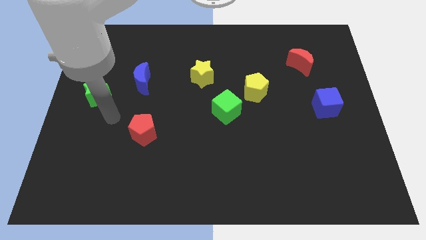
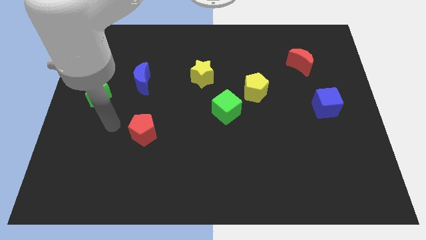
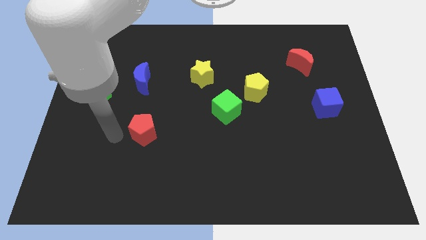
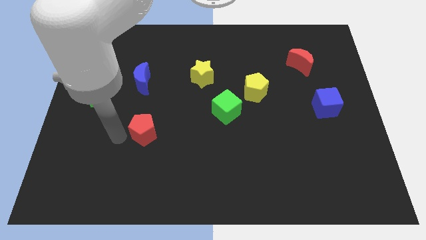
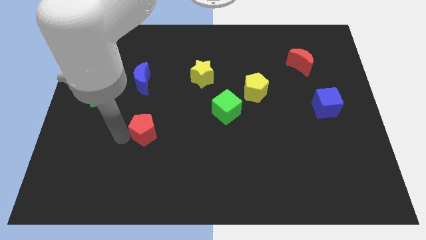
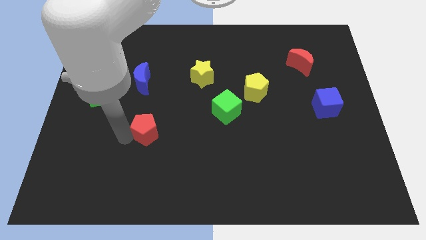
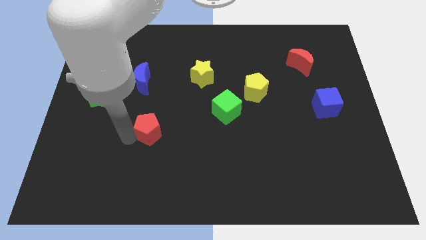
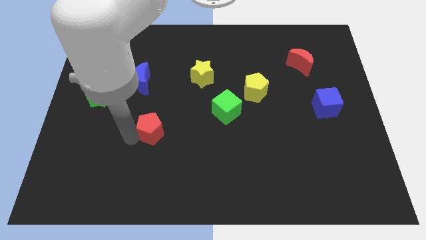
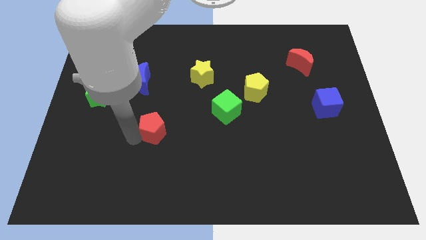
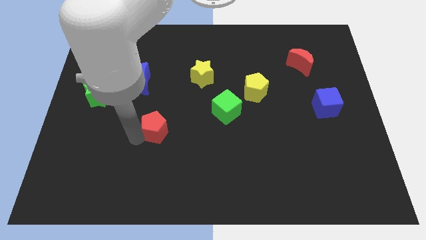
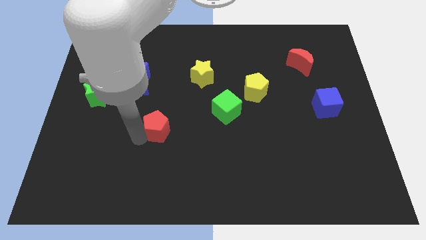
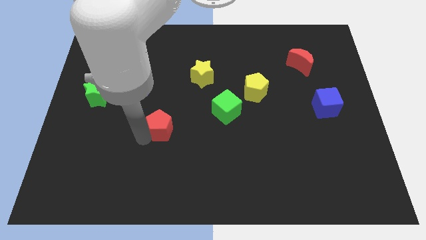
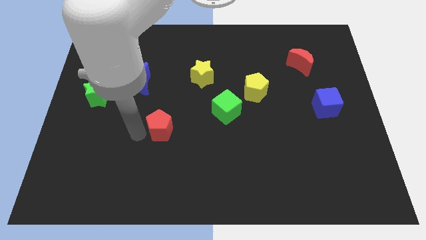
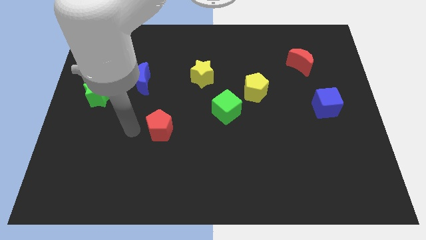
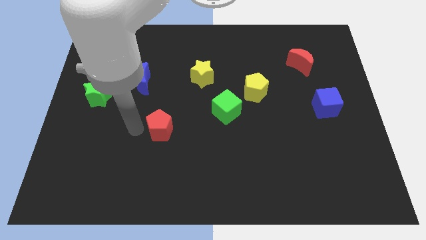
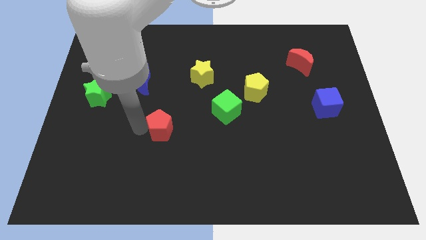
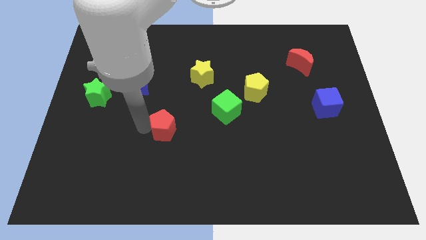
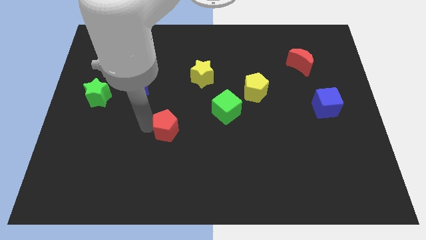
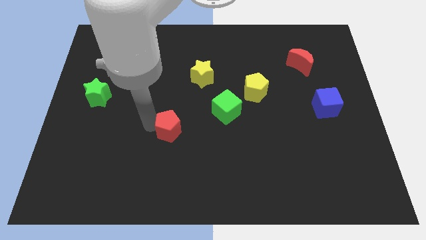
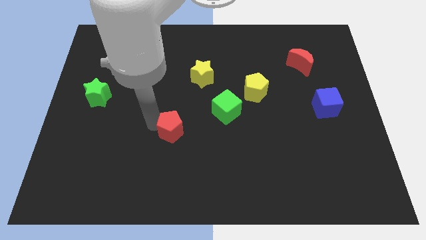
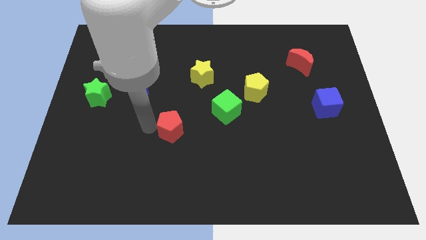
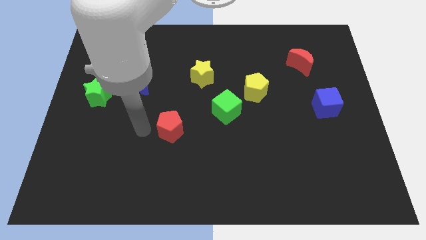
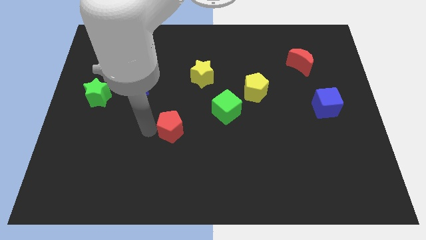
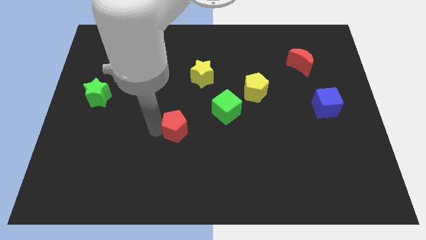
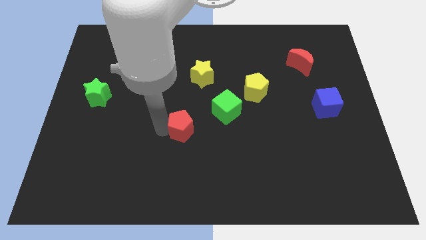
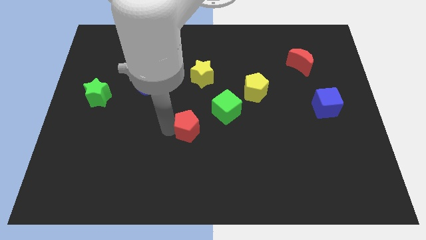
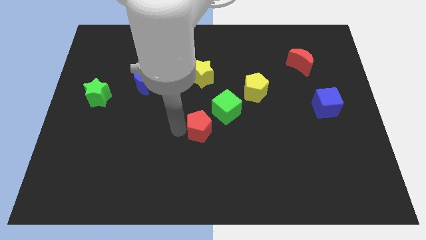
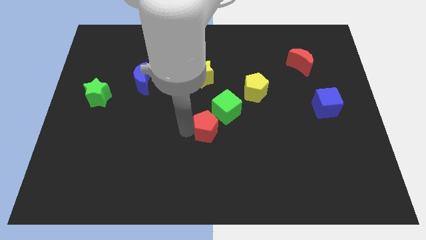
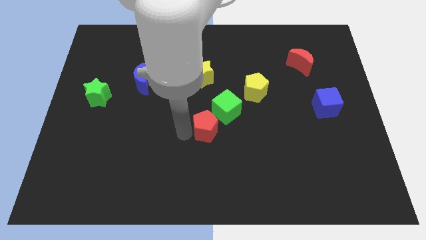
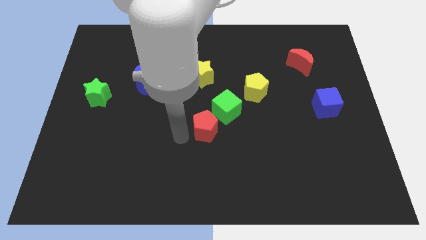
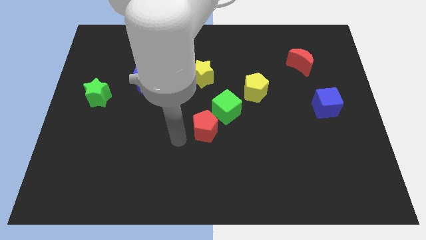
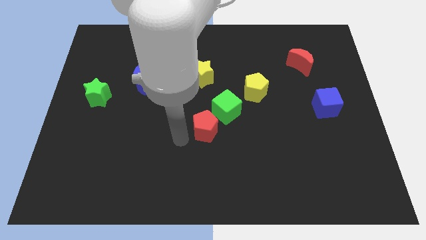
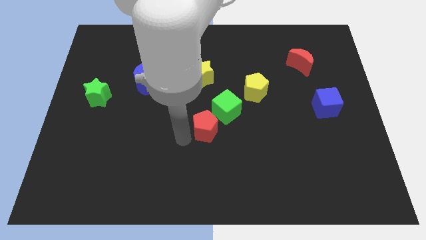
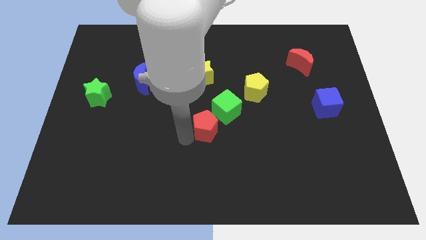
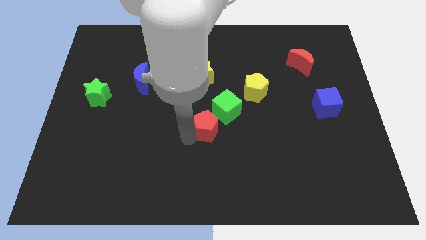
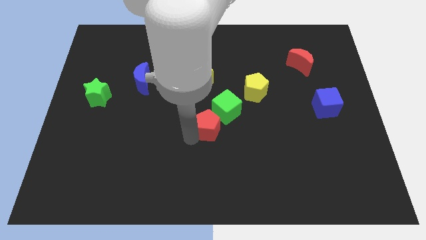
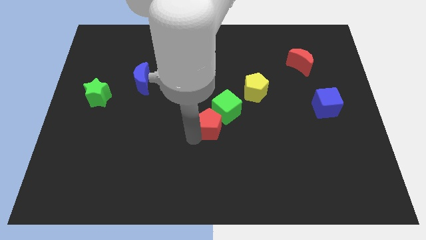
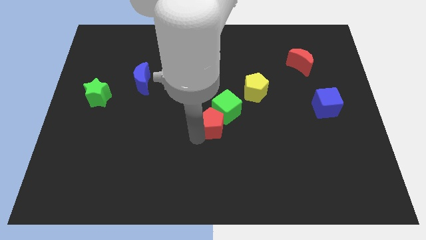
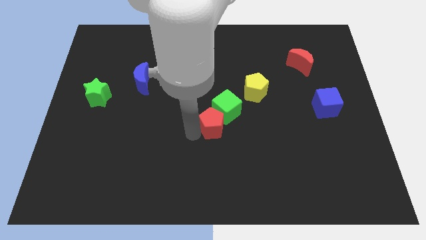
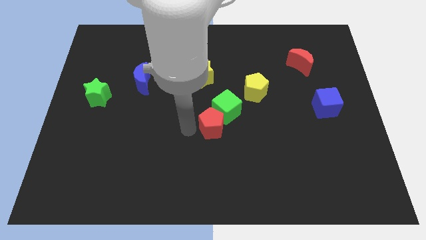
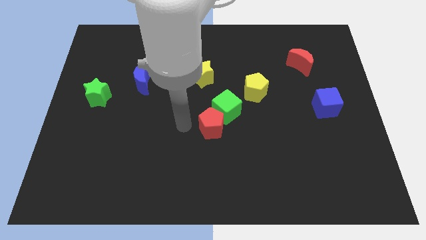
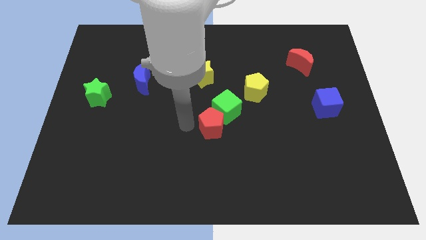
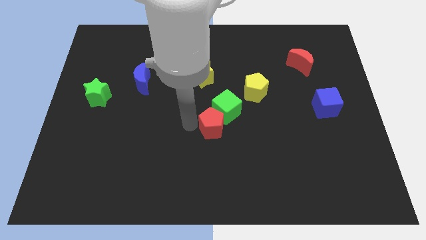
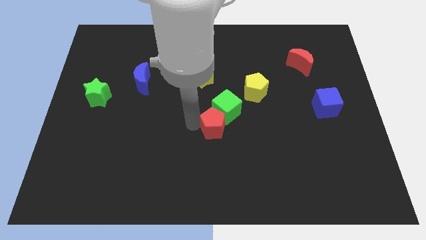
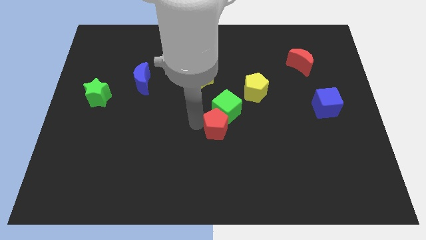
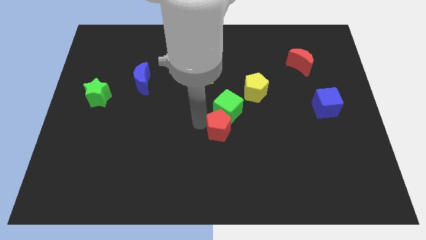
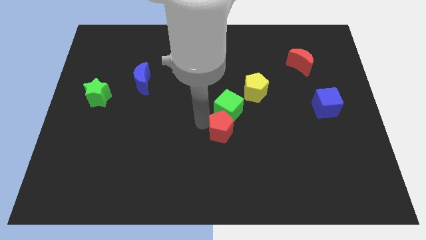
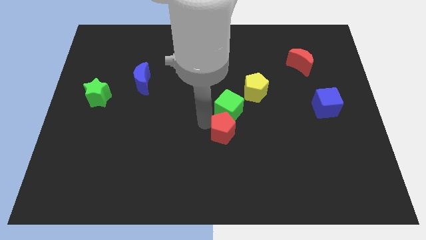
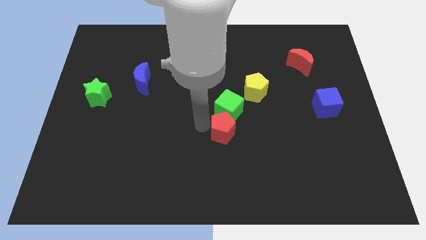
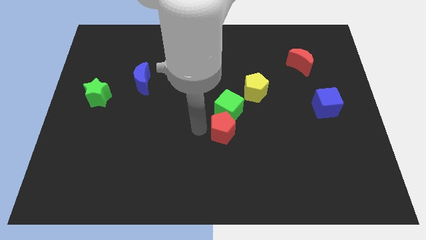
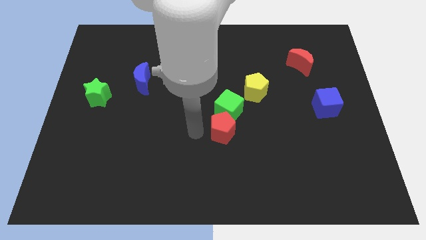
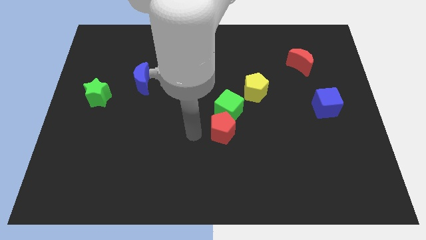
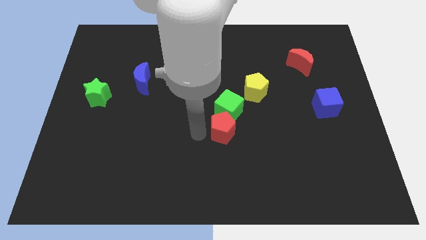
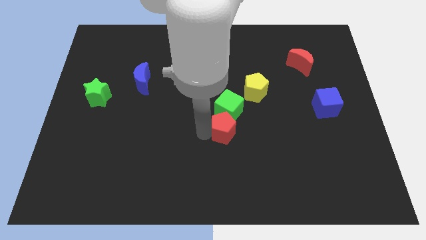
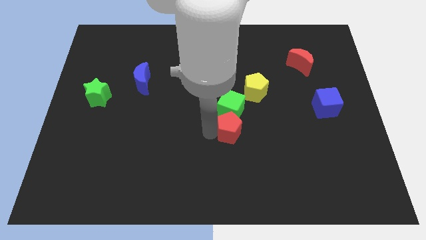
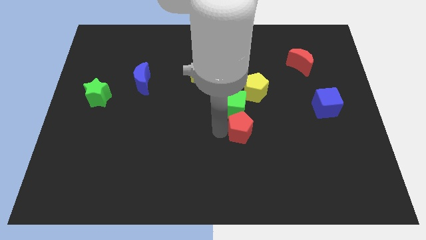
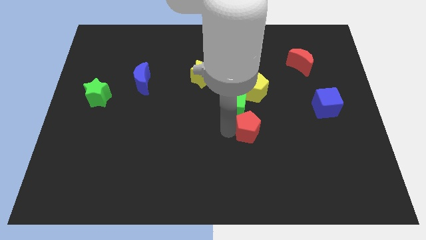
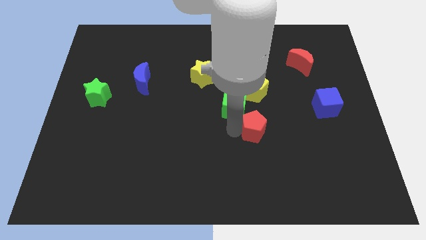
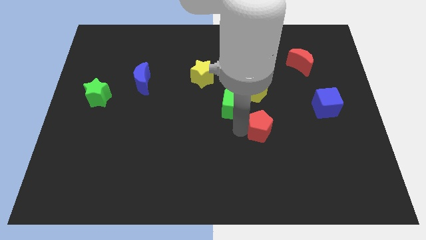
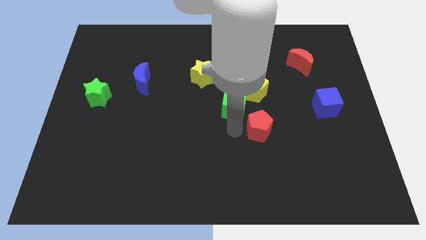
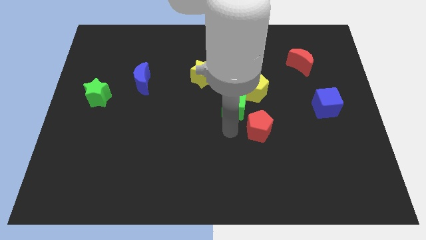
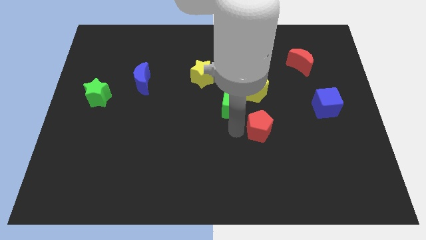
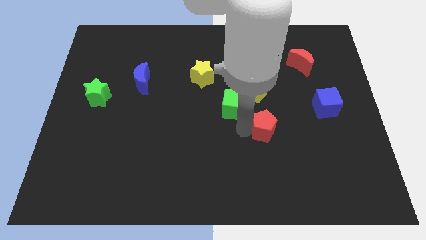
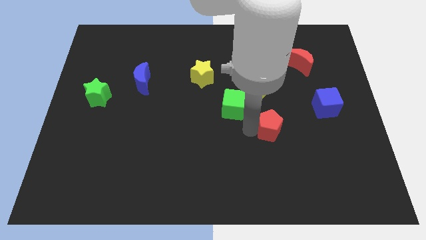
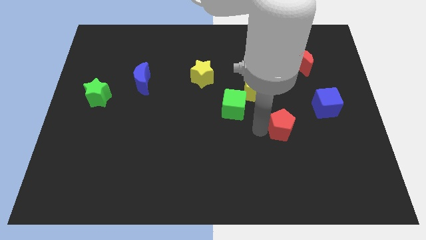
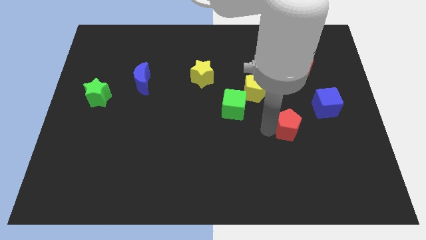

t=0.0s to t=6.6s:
push the red pentagon to the bottom left of the blue cube
